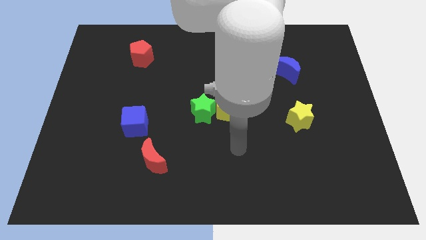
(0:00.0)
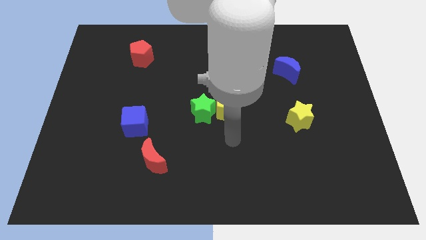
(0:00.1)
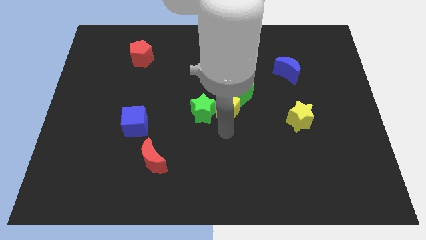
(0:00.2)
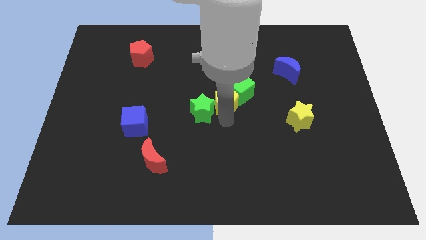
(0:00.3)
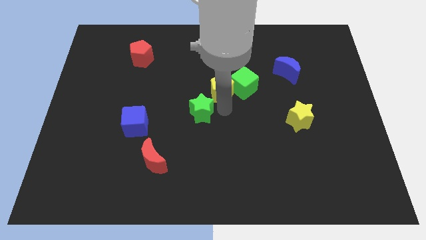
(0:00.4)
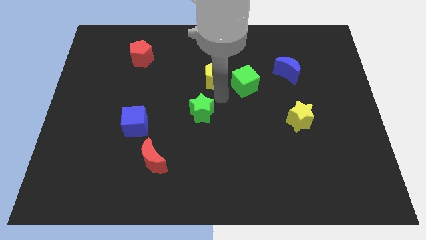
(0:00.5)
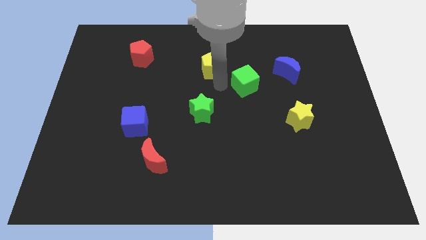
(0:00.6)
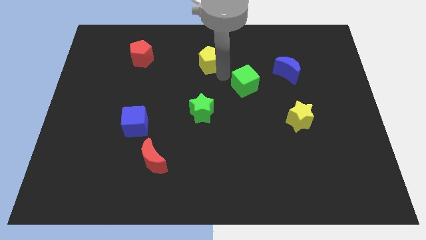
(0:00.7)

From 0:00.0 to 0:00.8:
separate the green cube from the yellow pentagon

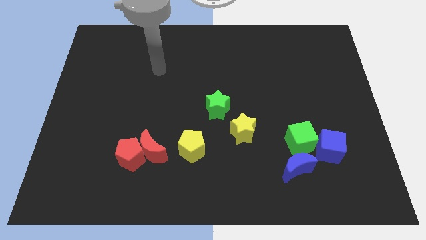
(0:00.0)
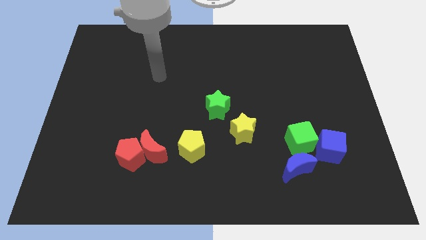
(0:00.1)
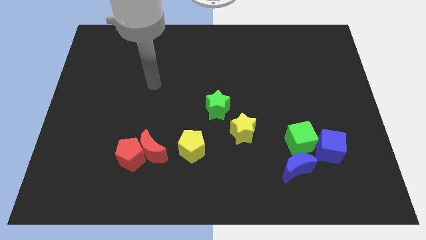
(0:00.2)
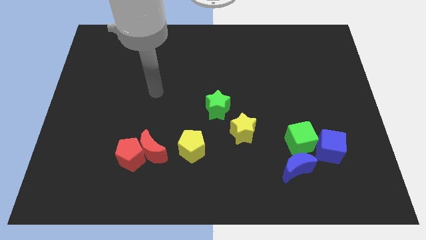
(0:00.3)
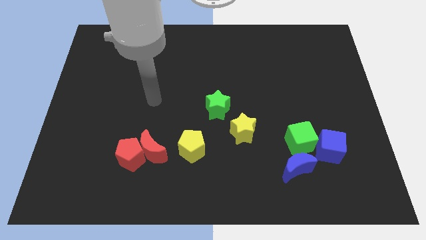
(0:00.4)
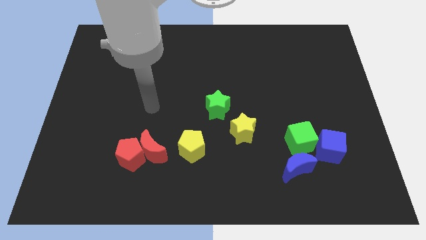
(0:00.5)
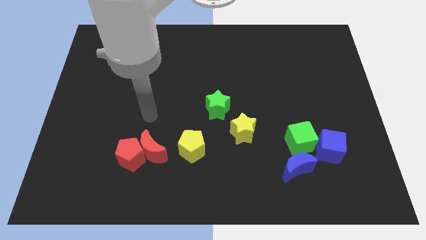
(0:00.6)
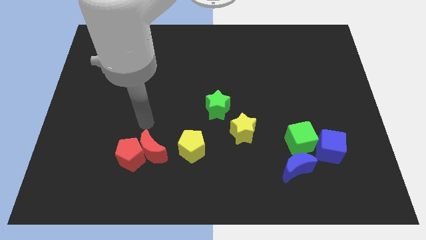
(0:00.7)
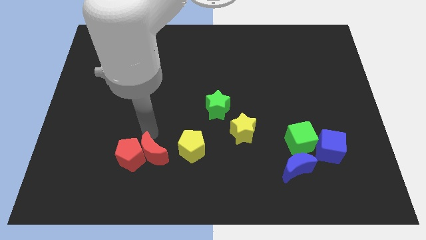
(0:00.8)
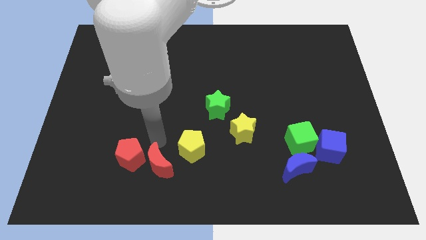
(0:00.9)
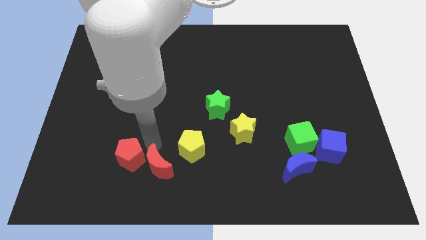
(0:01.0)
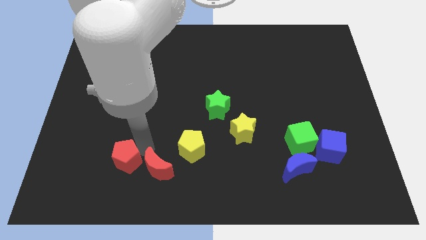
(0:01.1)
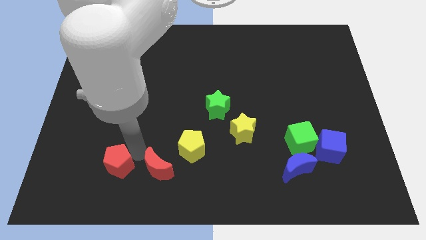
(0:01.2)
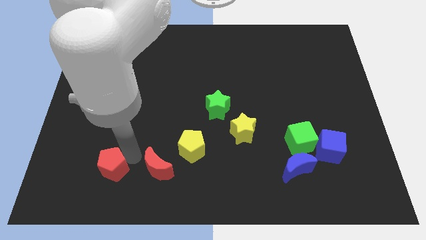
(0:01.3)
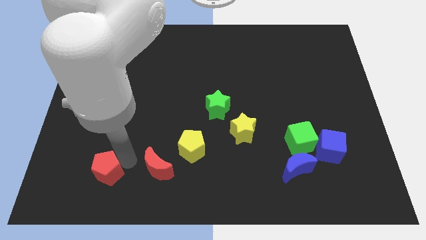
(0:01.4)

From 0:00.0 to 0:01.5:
pull the red pentagon apart from the red moon

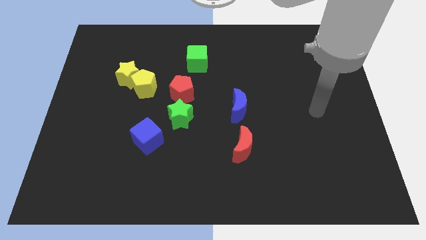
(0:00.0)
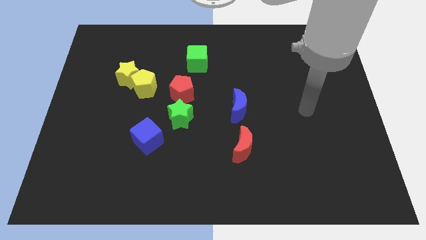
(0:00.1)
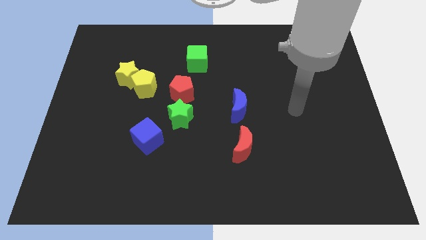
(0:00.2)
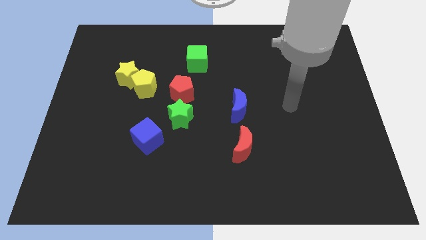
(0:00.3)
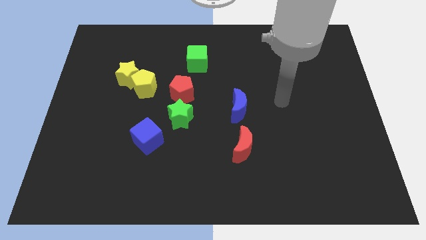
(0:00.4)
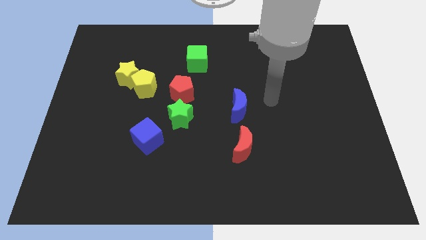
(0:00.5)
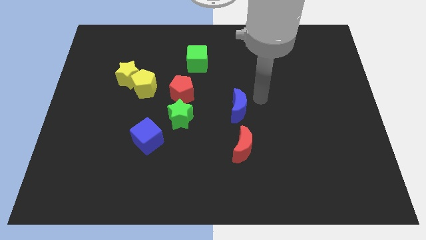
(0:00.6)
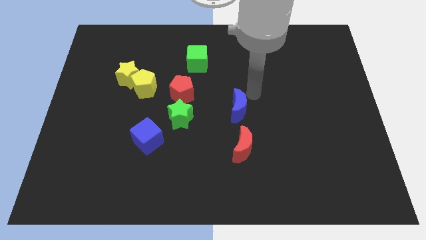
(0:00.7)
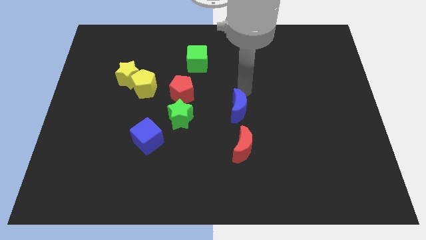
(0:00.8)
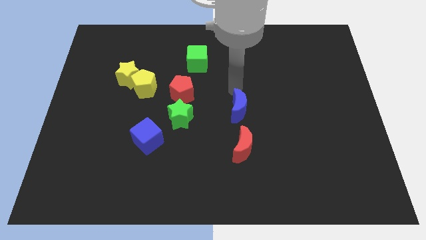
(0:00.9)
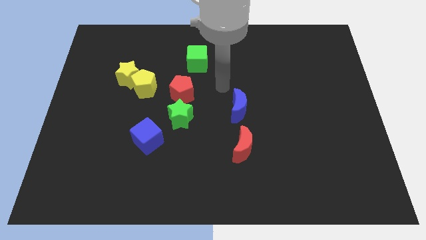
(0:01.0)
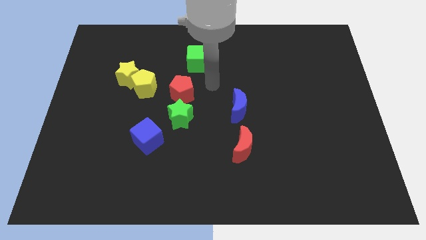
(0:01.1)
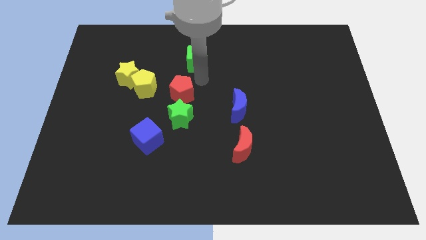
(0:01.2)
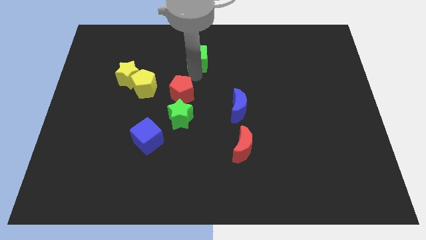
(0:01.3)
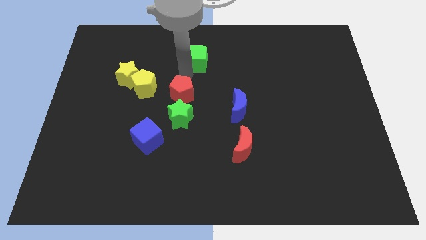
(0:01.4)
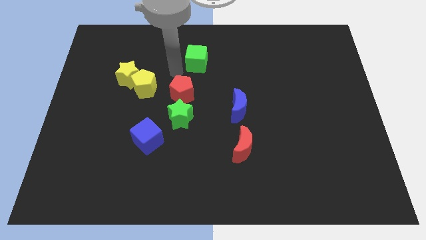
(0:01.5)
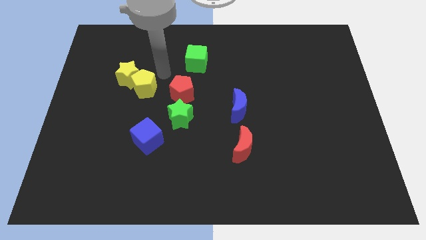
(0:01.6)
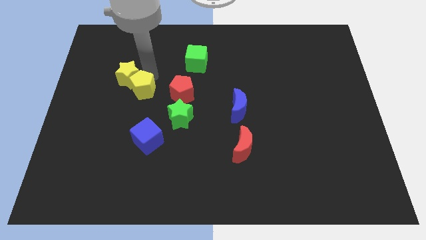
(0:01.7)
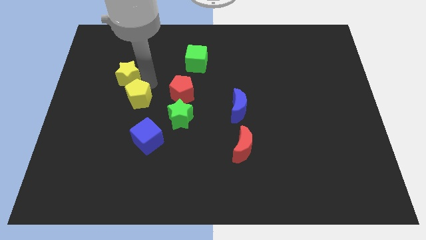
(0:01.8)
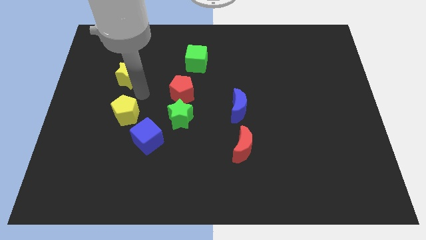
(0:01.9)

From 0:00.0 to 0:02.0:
move the yellow star away from the yellow pentagon

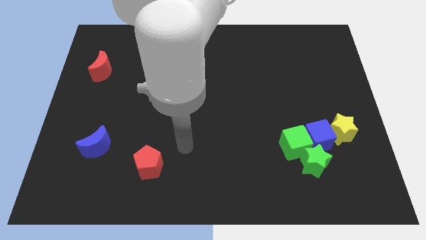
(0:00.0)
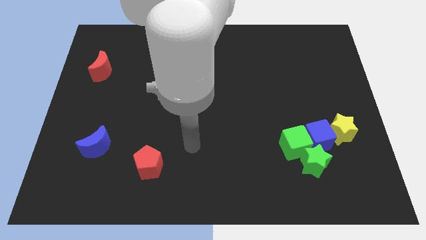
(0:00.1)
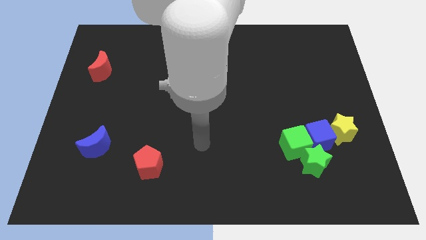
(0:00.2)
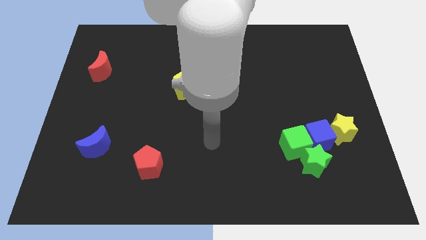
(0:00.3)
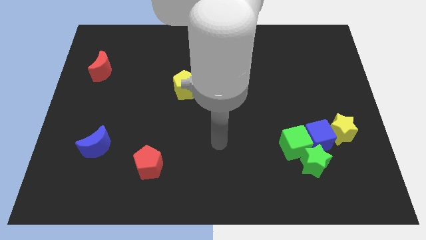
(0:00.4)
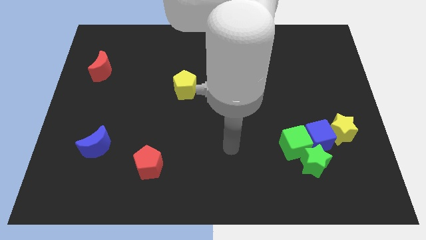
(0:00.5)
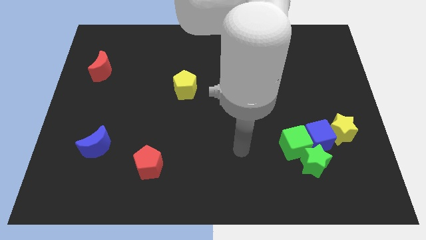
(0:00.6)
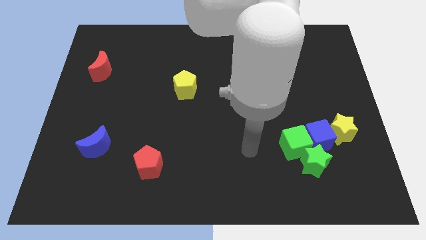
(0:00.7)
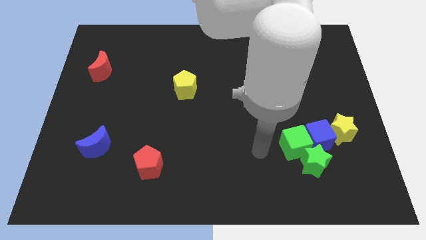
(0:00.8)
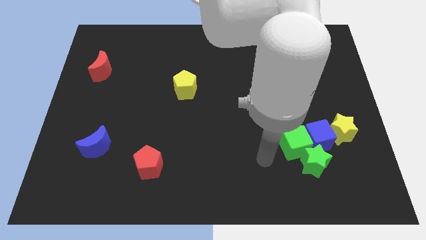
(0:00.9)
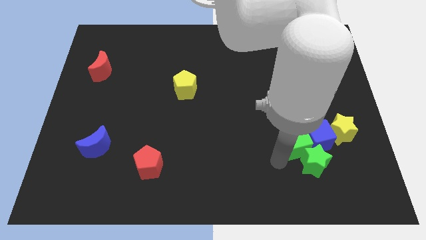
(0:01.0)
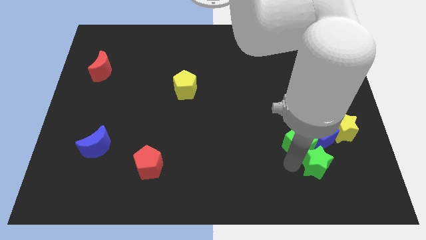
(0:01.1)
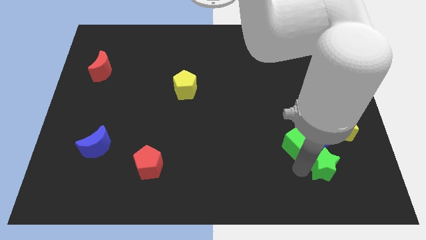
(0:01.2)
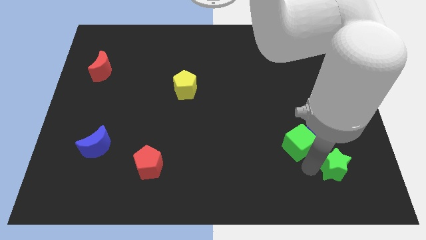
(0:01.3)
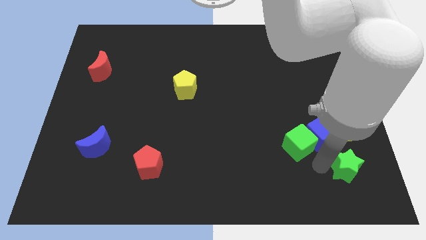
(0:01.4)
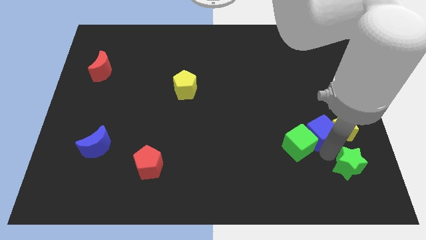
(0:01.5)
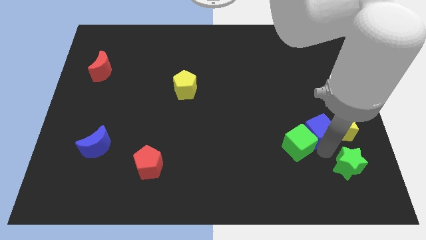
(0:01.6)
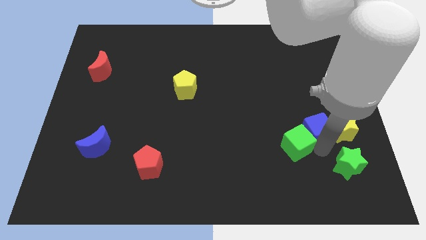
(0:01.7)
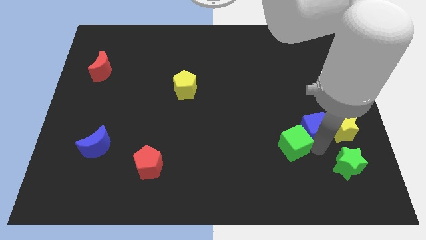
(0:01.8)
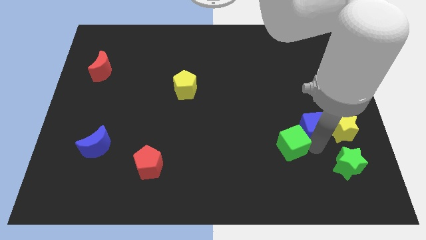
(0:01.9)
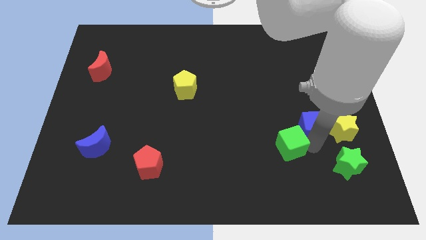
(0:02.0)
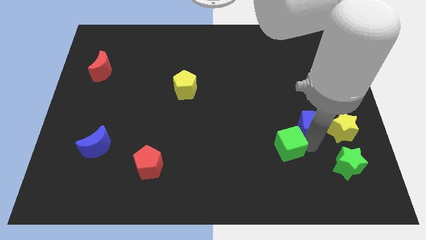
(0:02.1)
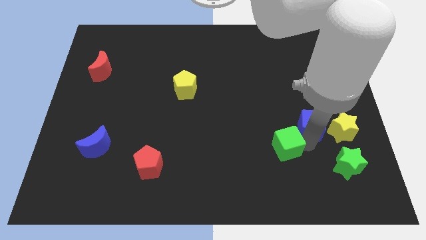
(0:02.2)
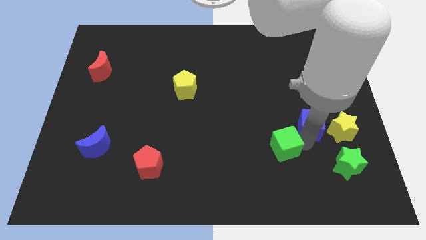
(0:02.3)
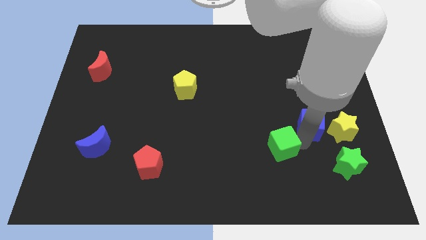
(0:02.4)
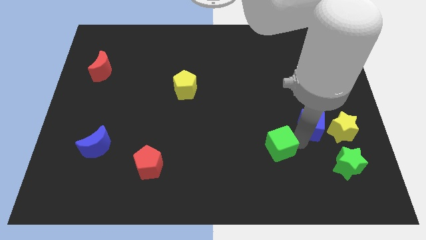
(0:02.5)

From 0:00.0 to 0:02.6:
move the green cube away from the blue cube and green star

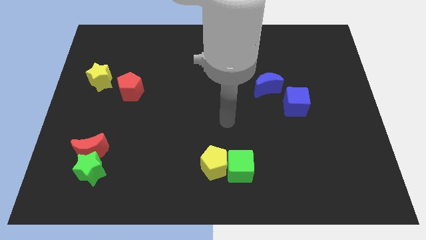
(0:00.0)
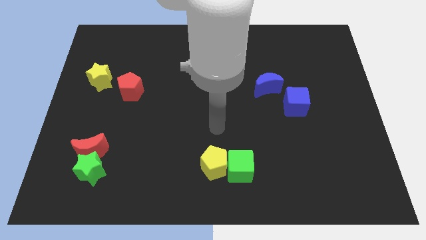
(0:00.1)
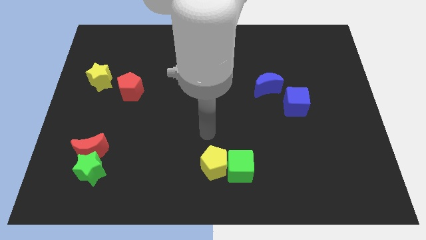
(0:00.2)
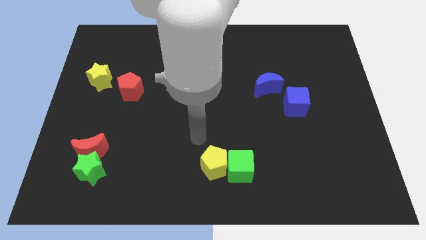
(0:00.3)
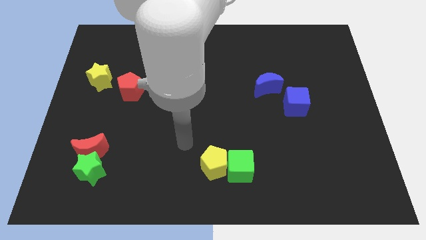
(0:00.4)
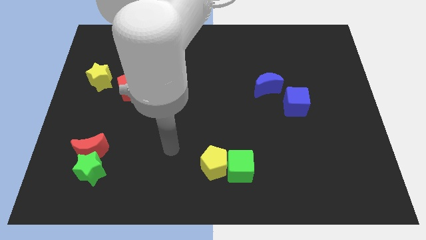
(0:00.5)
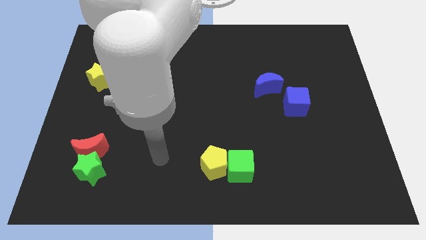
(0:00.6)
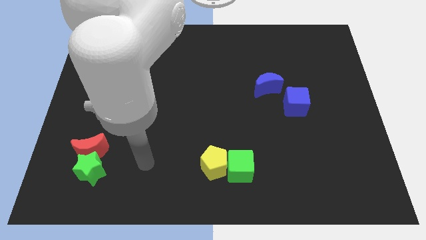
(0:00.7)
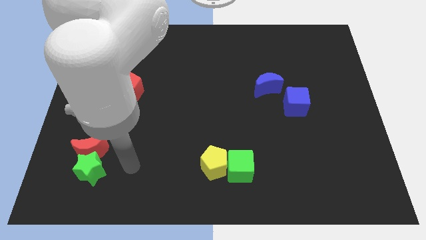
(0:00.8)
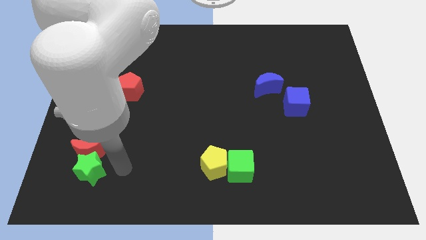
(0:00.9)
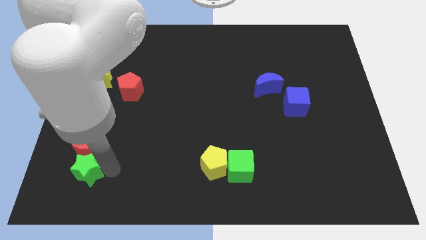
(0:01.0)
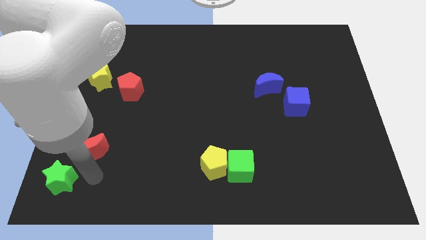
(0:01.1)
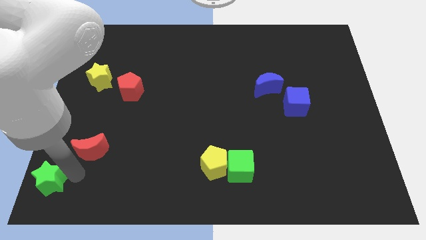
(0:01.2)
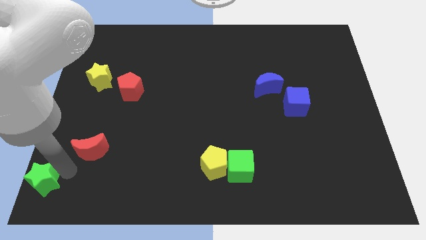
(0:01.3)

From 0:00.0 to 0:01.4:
separate the red moon from the green star

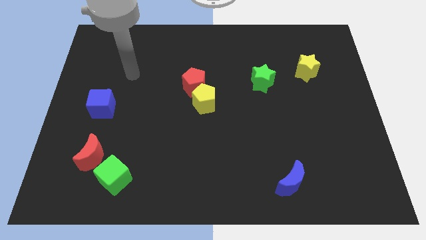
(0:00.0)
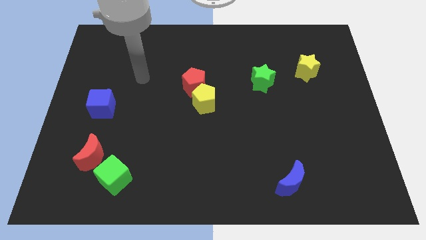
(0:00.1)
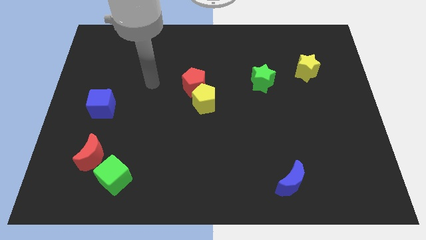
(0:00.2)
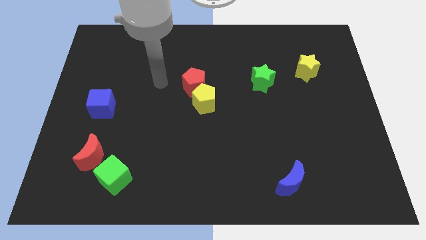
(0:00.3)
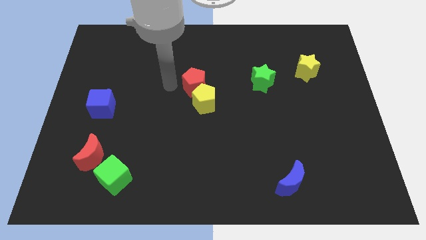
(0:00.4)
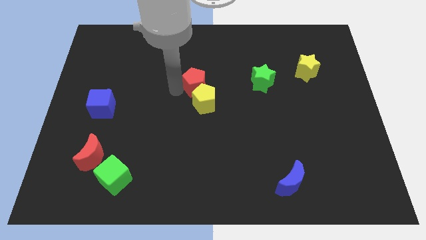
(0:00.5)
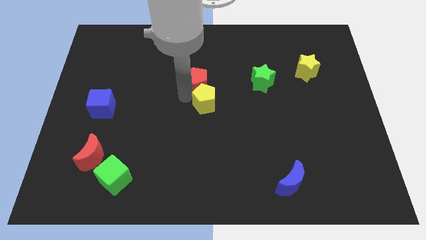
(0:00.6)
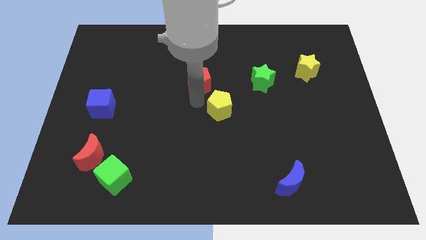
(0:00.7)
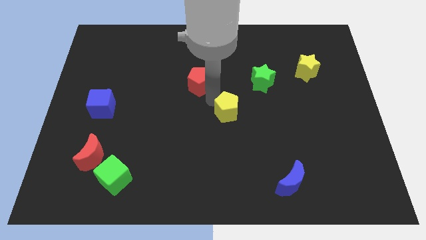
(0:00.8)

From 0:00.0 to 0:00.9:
separate the red pentagon from the yellow pentagon
